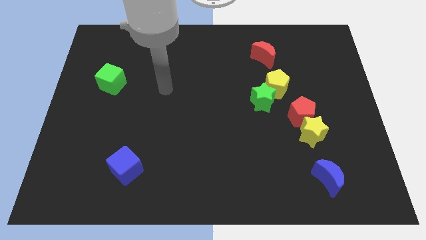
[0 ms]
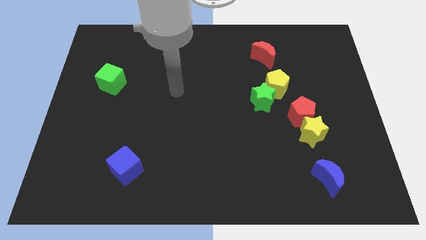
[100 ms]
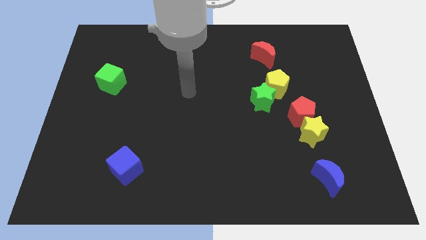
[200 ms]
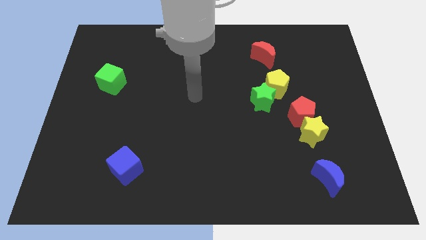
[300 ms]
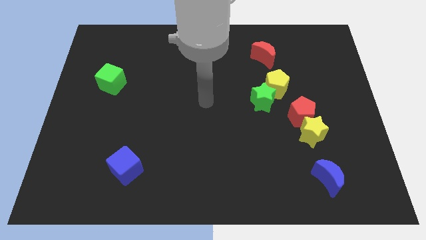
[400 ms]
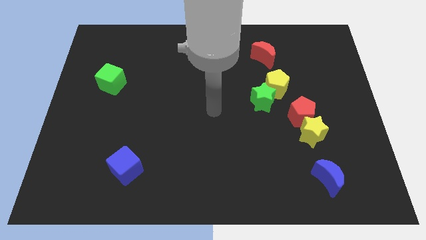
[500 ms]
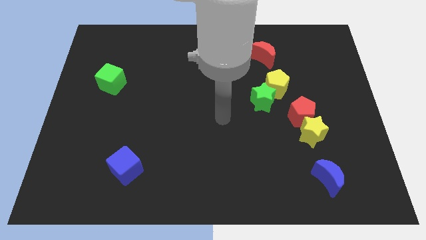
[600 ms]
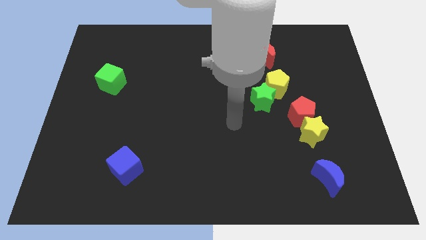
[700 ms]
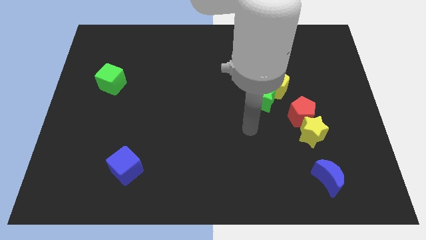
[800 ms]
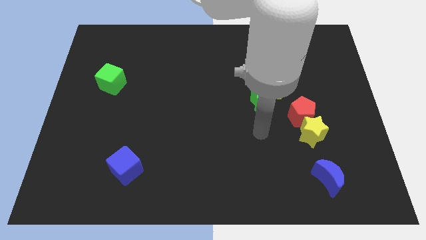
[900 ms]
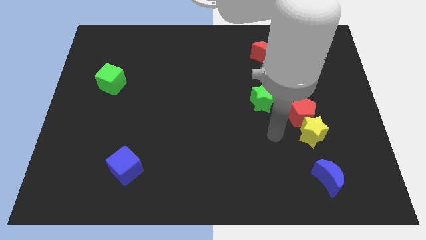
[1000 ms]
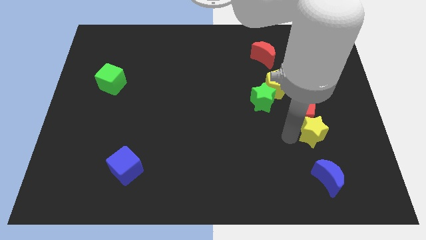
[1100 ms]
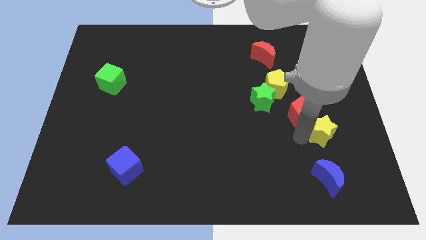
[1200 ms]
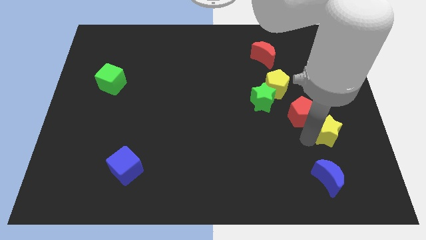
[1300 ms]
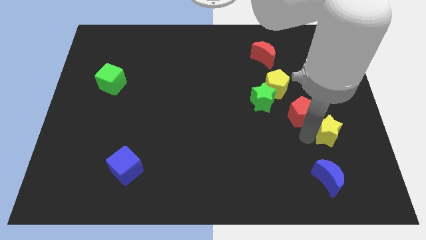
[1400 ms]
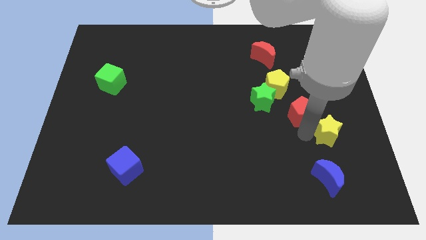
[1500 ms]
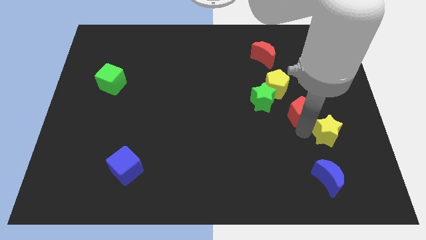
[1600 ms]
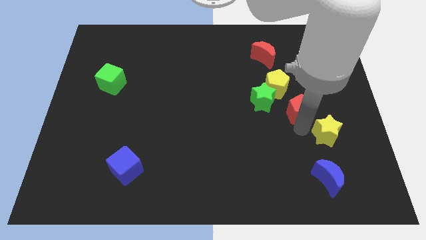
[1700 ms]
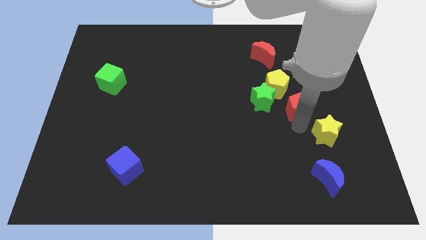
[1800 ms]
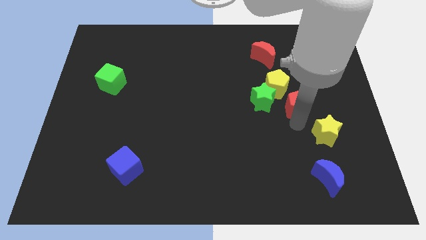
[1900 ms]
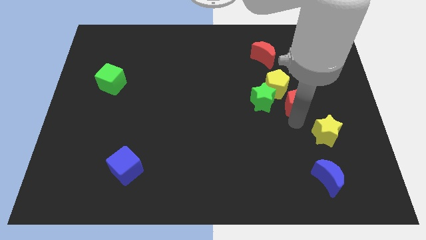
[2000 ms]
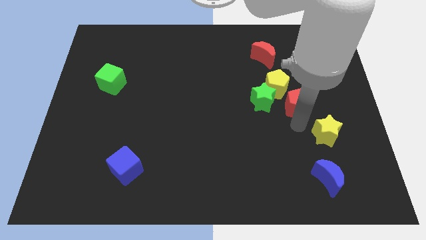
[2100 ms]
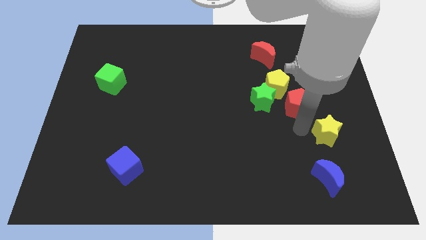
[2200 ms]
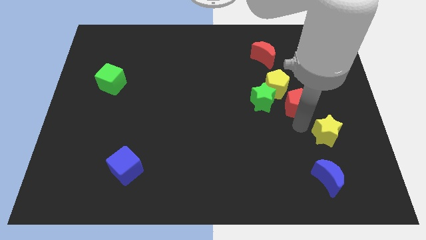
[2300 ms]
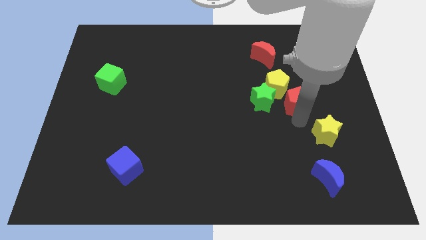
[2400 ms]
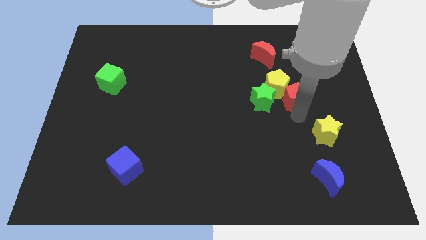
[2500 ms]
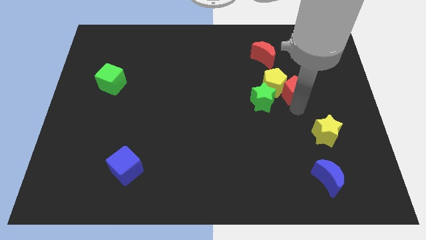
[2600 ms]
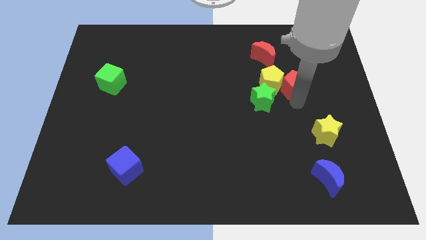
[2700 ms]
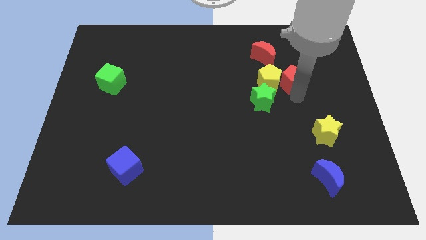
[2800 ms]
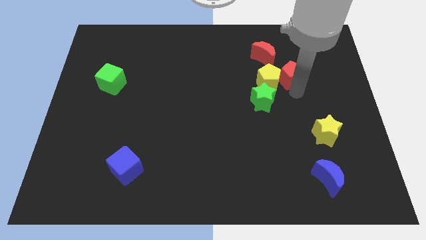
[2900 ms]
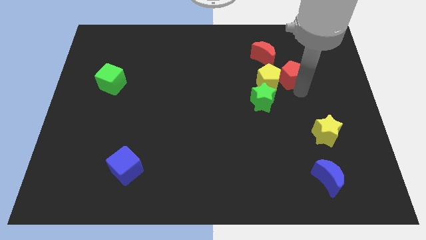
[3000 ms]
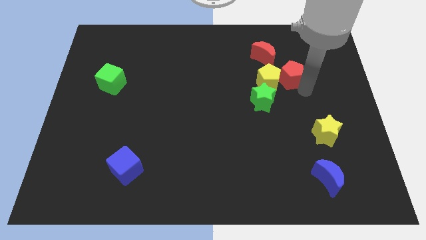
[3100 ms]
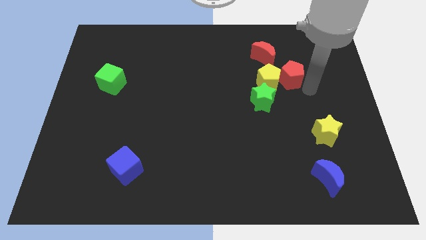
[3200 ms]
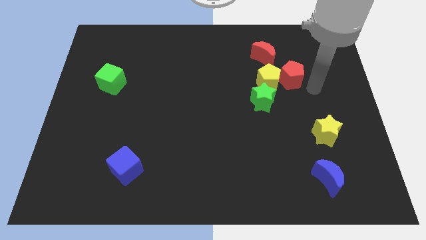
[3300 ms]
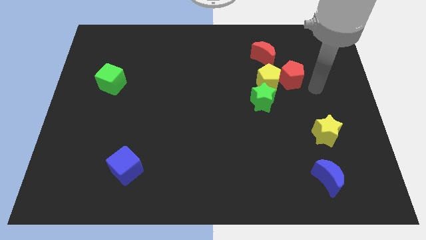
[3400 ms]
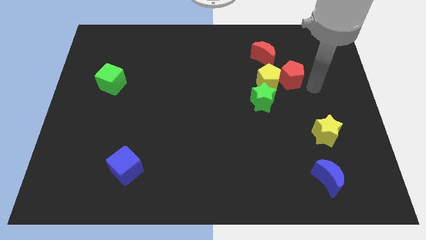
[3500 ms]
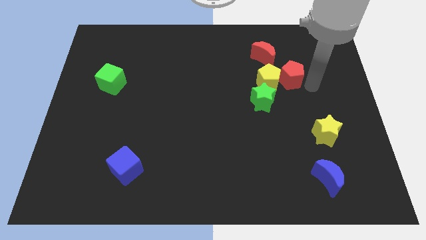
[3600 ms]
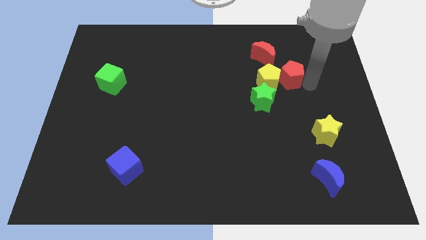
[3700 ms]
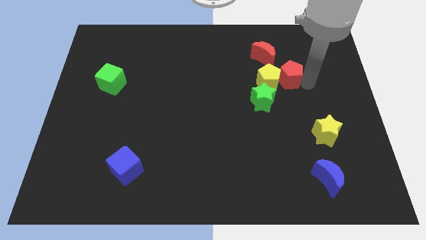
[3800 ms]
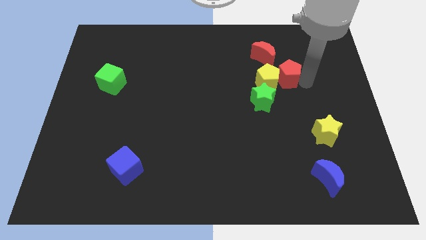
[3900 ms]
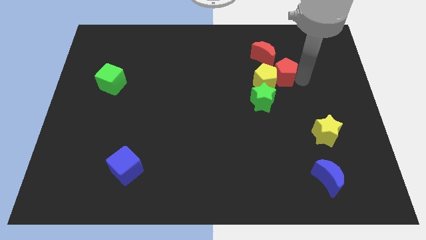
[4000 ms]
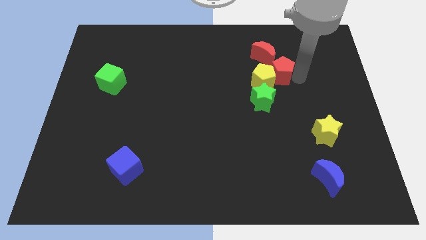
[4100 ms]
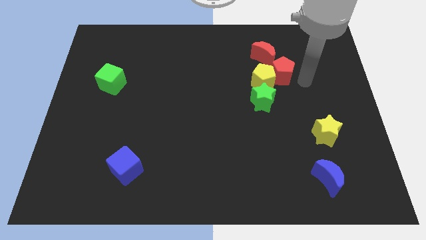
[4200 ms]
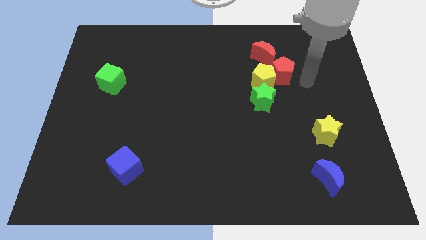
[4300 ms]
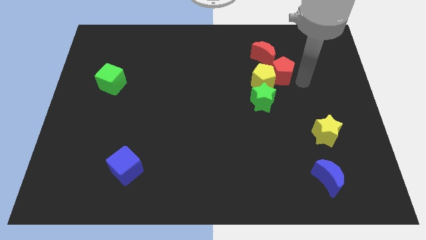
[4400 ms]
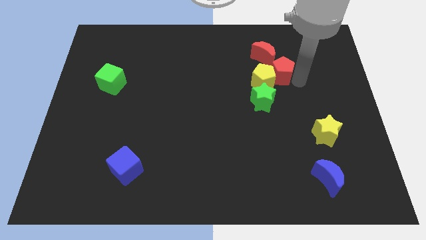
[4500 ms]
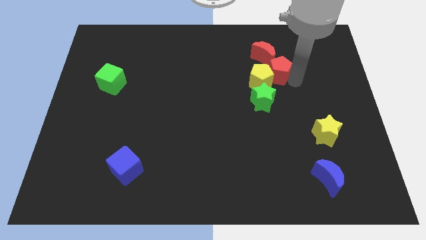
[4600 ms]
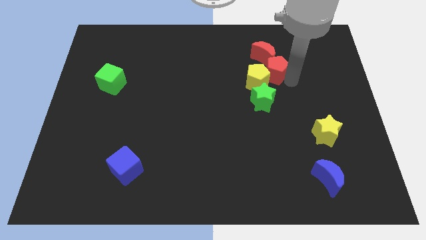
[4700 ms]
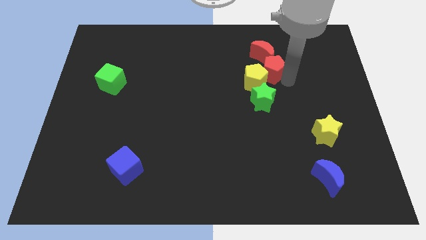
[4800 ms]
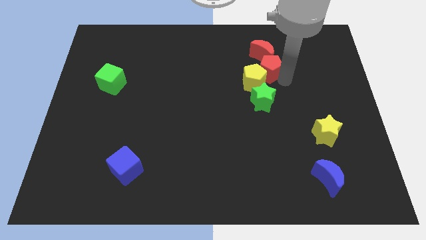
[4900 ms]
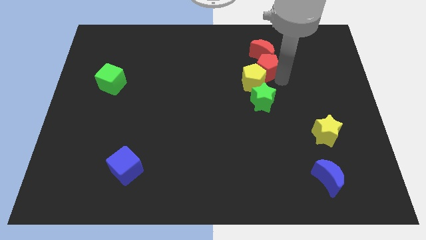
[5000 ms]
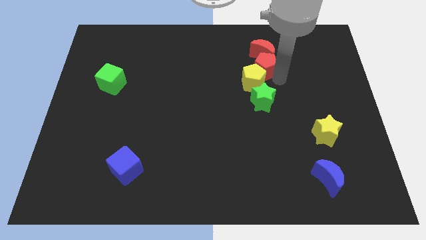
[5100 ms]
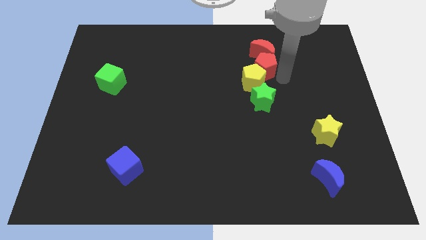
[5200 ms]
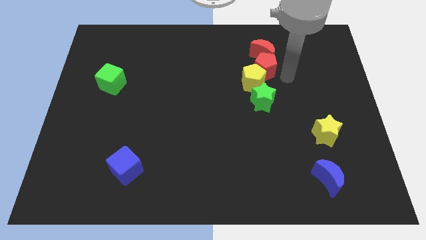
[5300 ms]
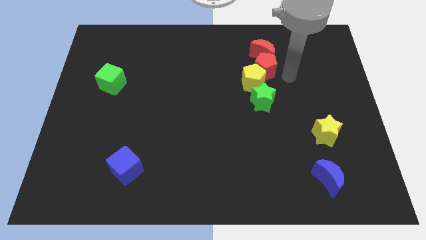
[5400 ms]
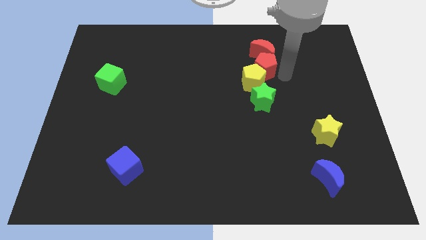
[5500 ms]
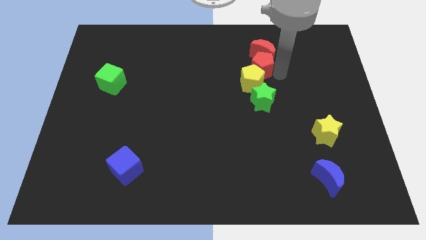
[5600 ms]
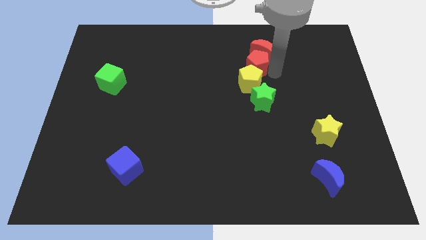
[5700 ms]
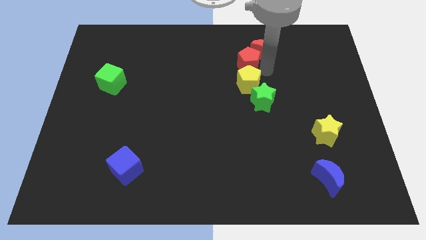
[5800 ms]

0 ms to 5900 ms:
push the red pentagon just left of the red moon

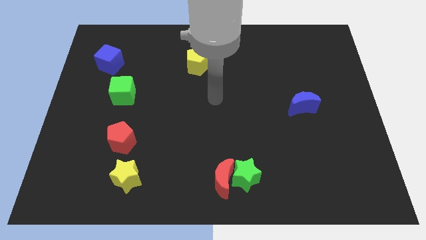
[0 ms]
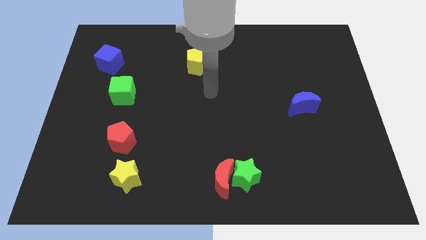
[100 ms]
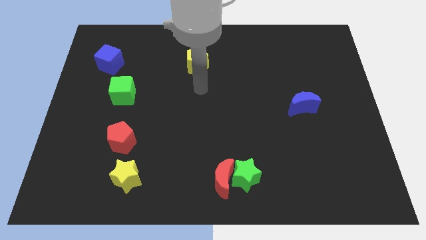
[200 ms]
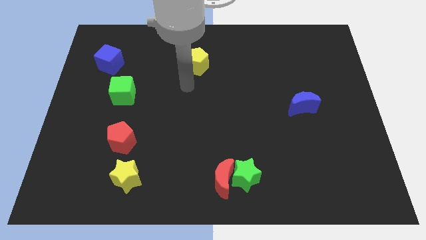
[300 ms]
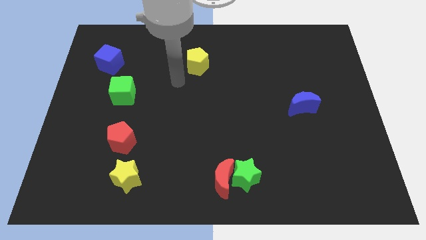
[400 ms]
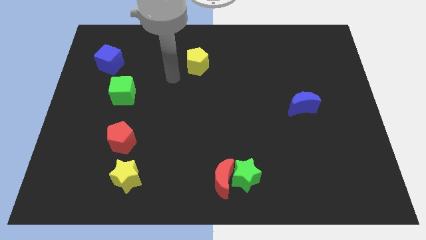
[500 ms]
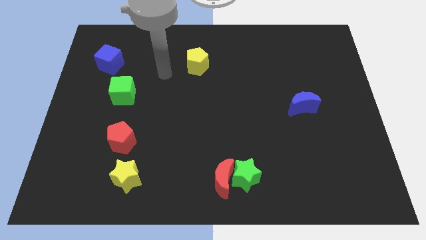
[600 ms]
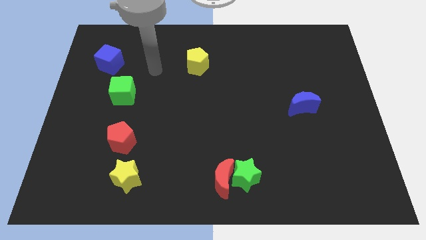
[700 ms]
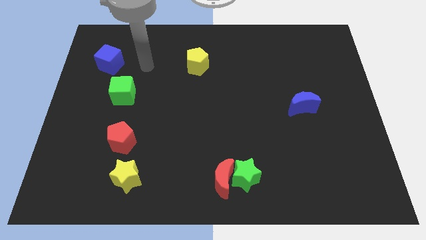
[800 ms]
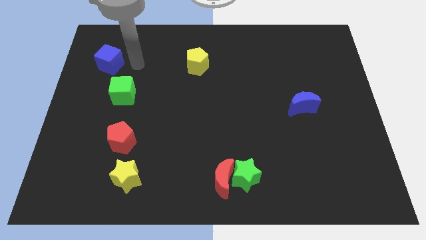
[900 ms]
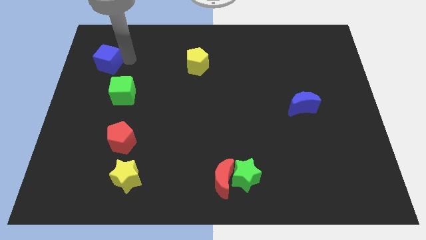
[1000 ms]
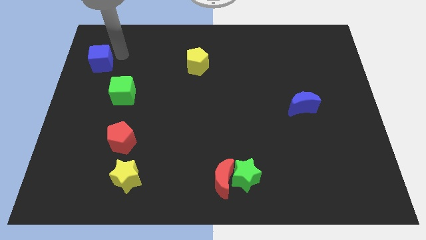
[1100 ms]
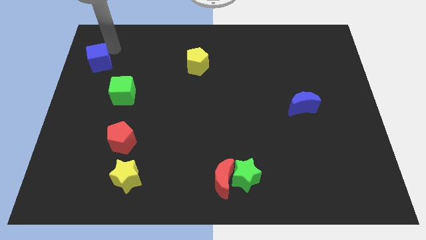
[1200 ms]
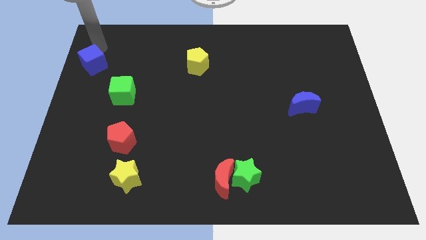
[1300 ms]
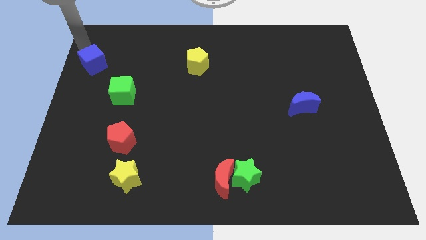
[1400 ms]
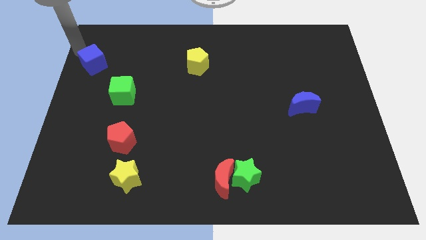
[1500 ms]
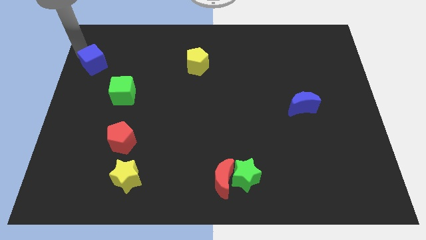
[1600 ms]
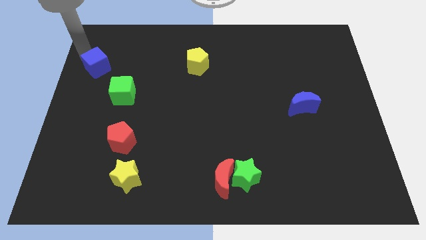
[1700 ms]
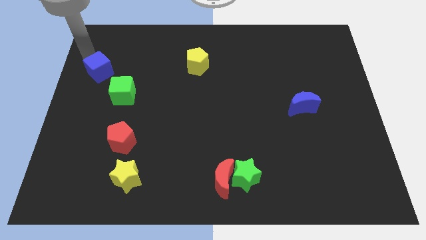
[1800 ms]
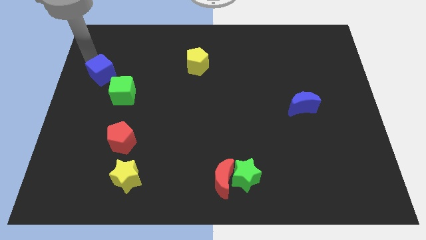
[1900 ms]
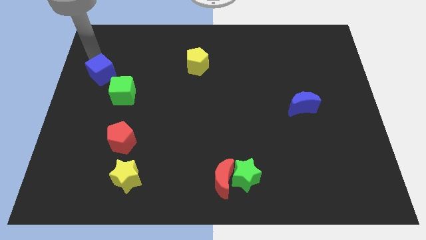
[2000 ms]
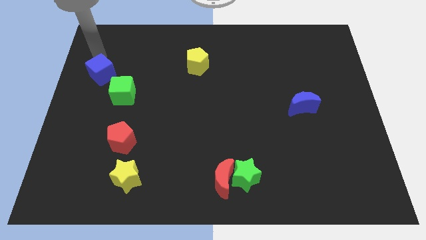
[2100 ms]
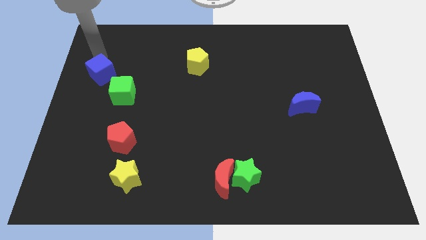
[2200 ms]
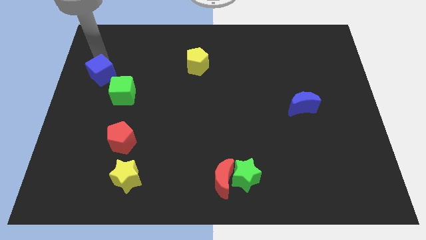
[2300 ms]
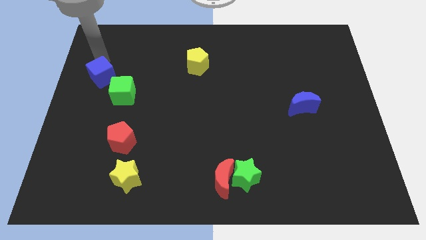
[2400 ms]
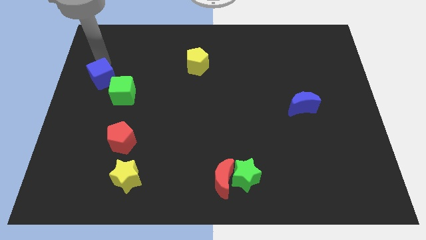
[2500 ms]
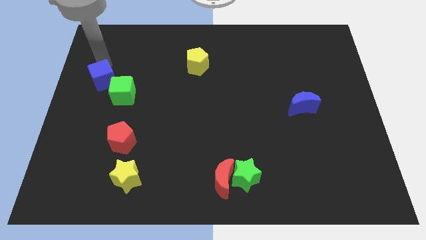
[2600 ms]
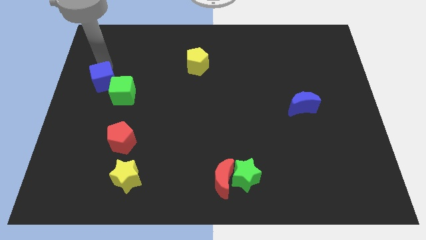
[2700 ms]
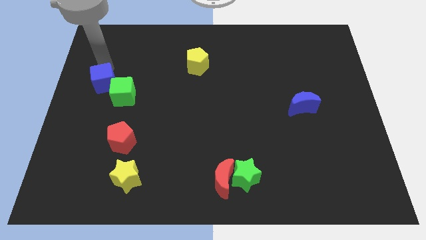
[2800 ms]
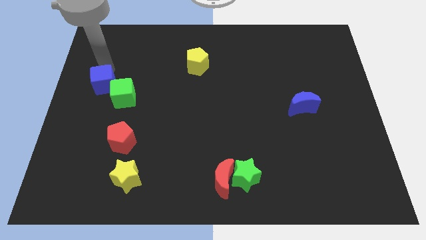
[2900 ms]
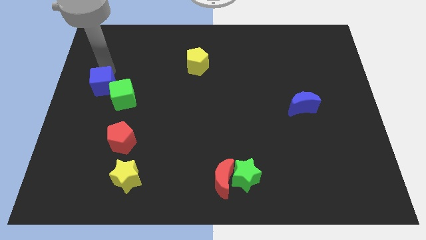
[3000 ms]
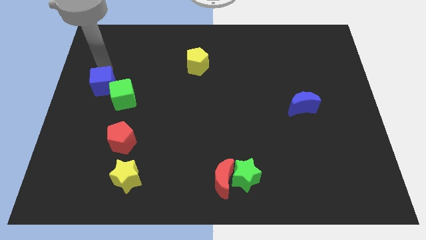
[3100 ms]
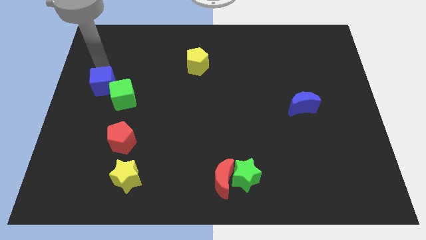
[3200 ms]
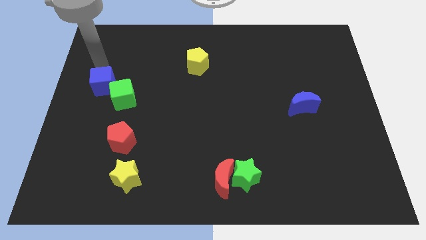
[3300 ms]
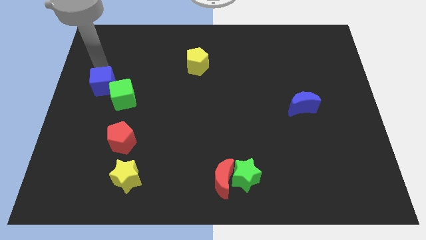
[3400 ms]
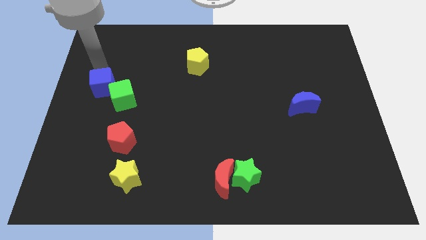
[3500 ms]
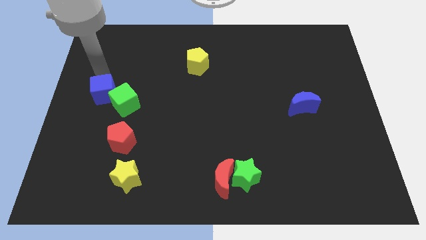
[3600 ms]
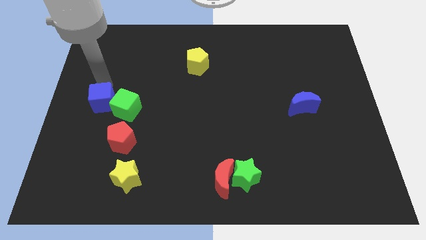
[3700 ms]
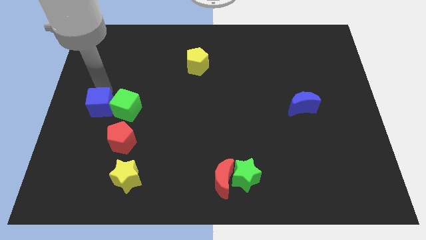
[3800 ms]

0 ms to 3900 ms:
push the blue cube diagonally down and to the left of the green cube
